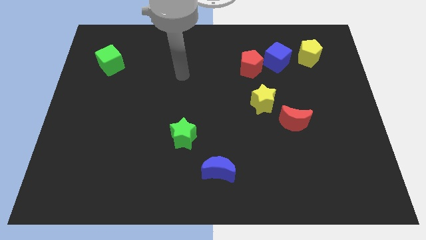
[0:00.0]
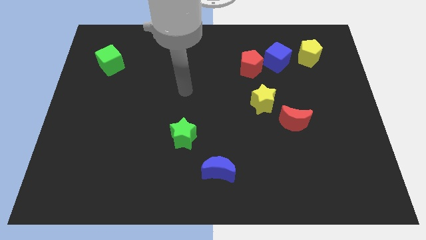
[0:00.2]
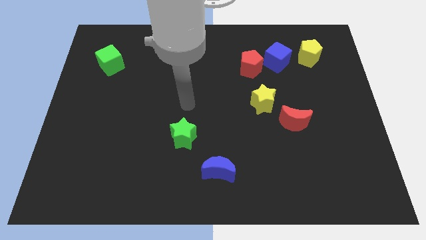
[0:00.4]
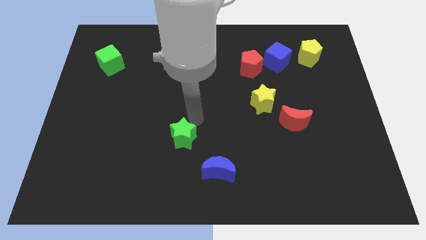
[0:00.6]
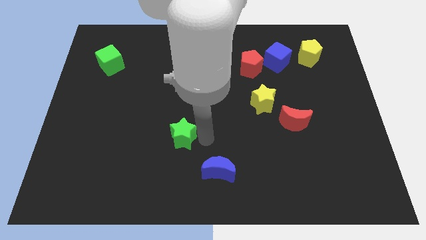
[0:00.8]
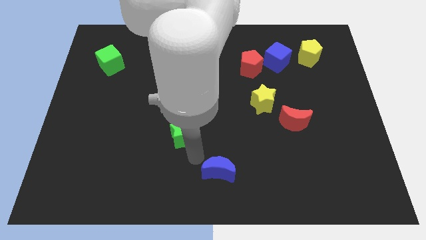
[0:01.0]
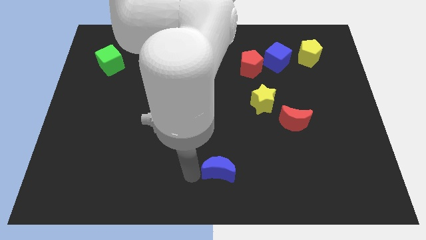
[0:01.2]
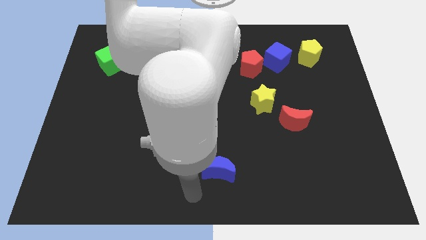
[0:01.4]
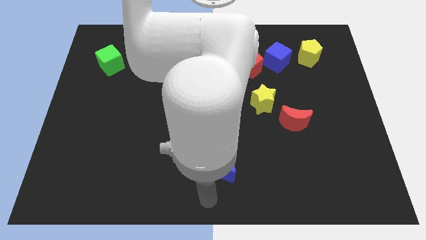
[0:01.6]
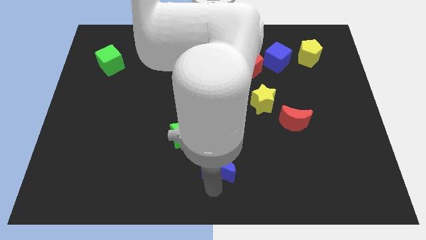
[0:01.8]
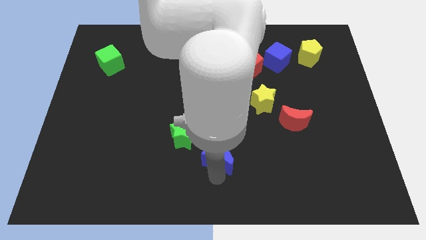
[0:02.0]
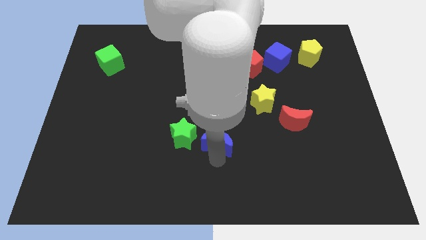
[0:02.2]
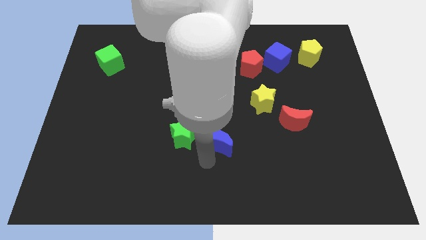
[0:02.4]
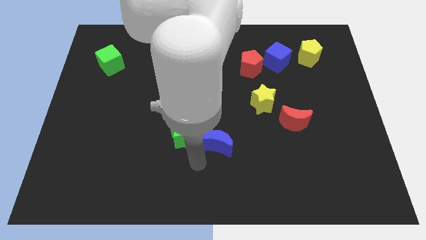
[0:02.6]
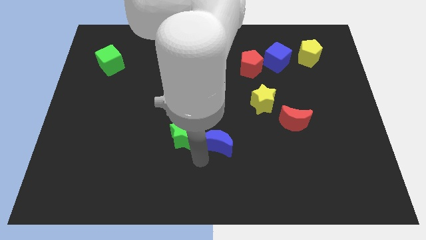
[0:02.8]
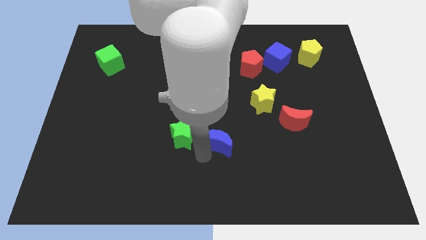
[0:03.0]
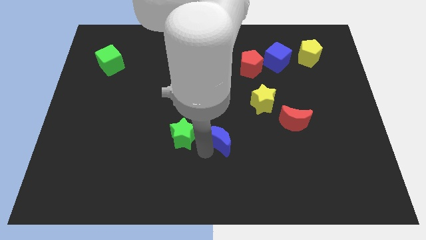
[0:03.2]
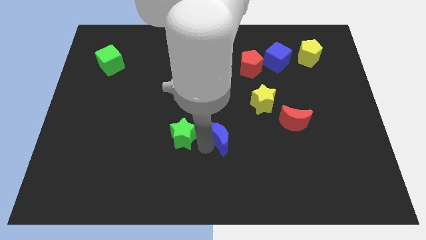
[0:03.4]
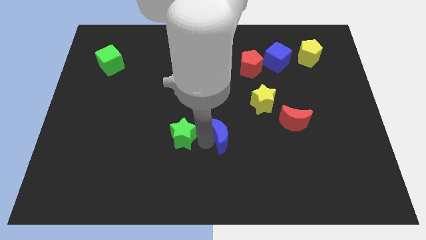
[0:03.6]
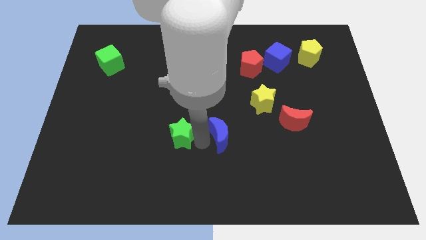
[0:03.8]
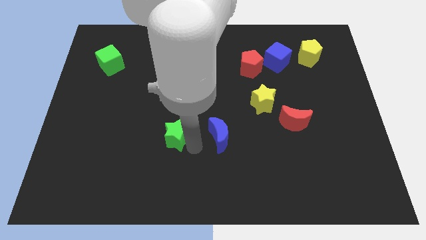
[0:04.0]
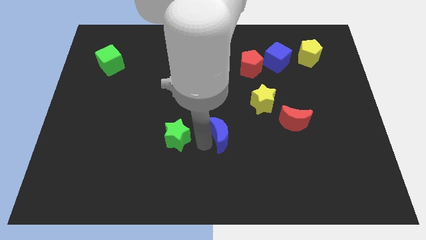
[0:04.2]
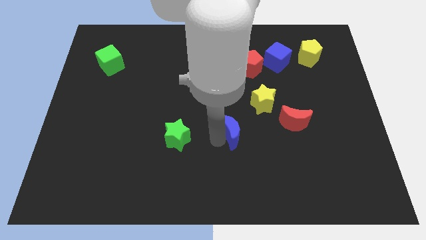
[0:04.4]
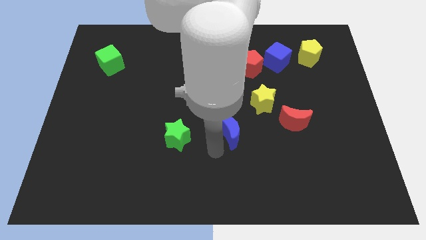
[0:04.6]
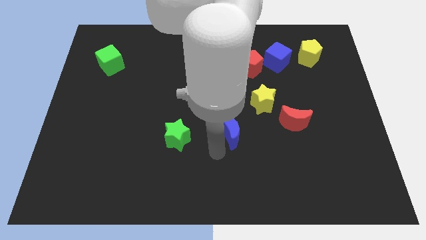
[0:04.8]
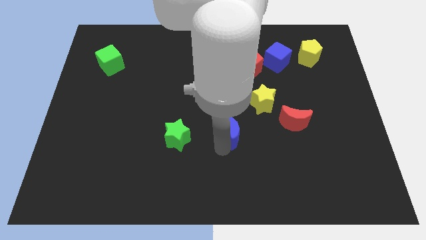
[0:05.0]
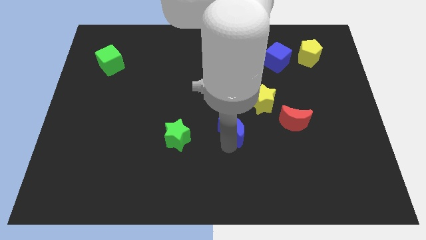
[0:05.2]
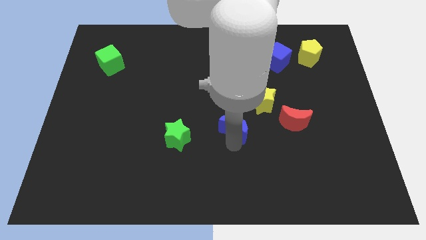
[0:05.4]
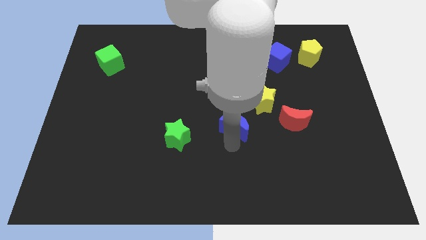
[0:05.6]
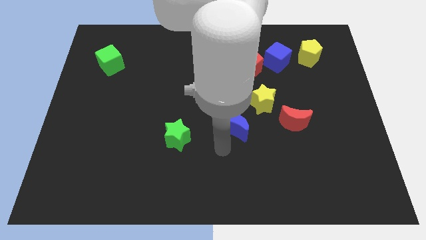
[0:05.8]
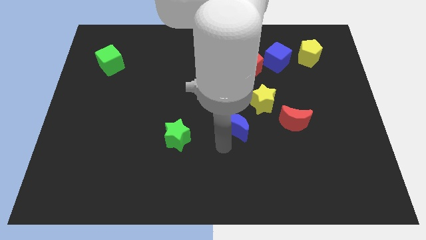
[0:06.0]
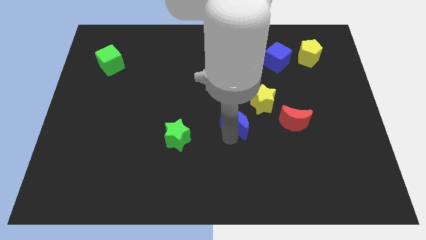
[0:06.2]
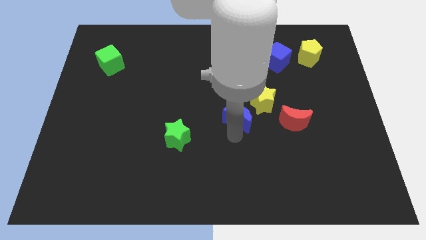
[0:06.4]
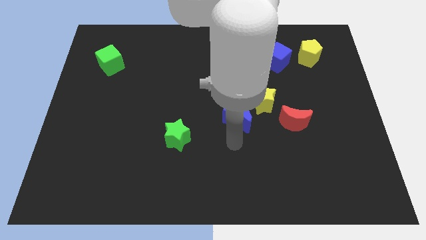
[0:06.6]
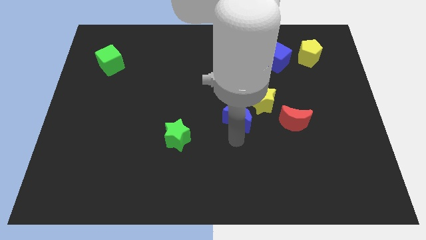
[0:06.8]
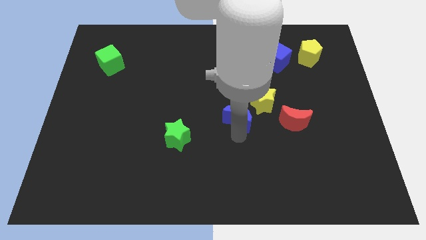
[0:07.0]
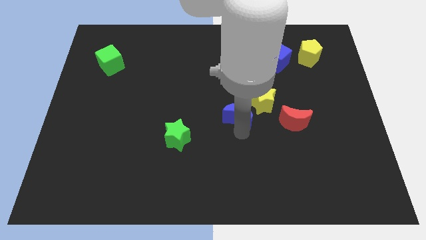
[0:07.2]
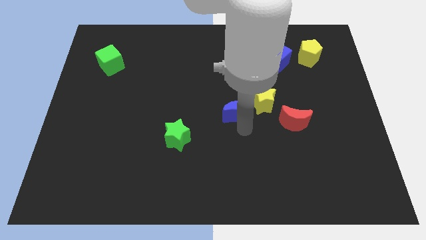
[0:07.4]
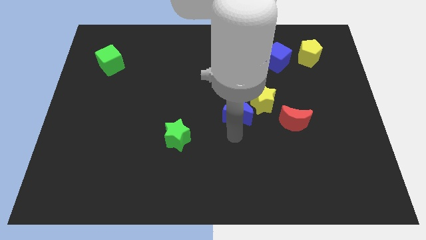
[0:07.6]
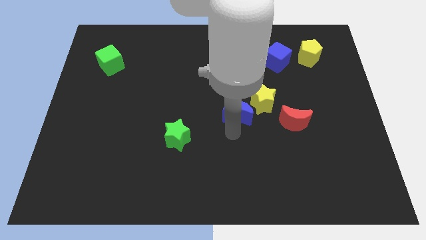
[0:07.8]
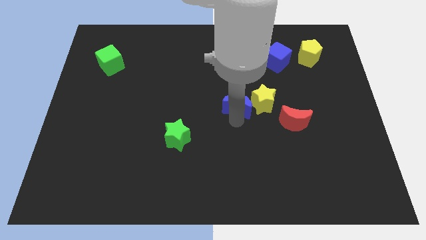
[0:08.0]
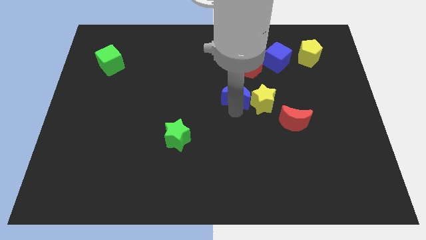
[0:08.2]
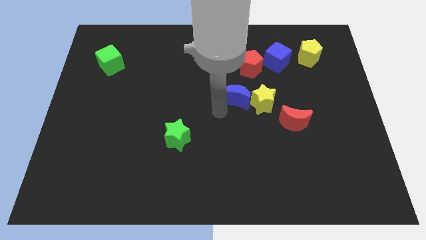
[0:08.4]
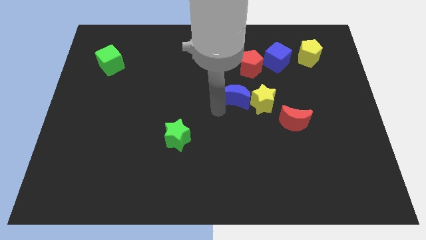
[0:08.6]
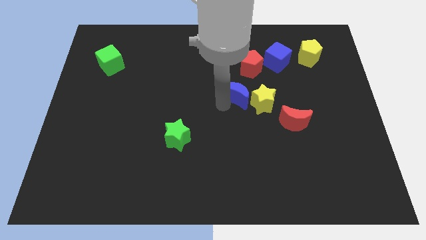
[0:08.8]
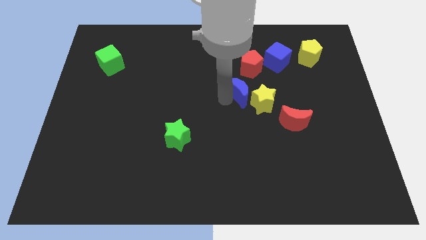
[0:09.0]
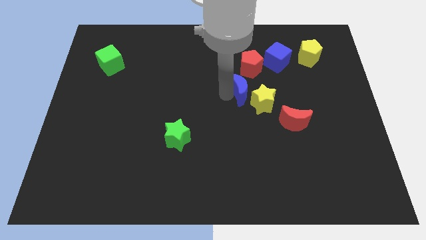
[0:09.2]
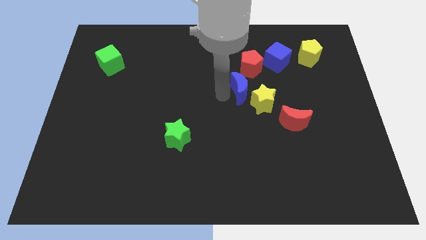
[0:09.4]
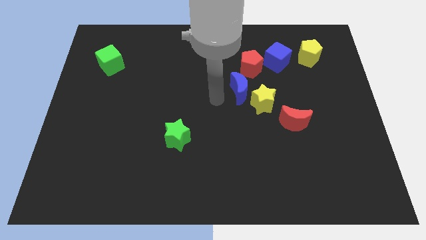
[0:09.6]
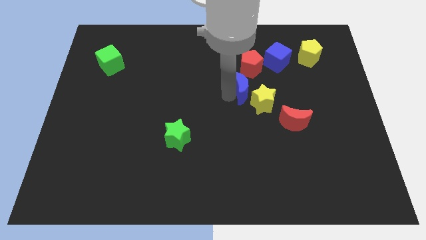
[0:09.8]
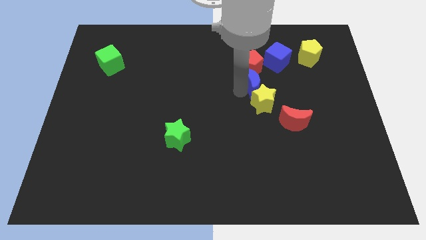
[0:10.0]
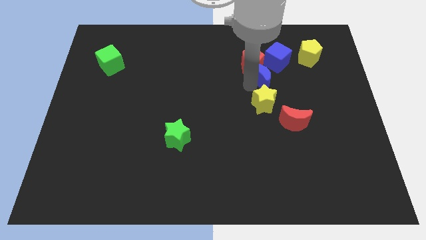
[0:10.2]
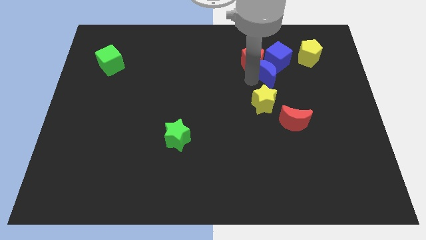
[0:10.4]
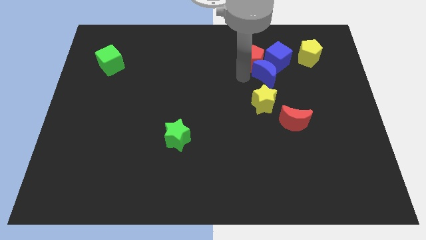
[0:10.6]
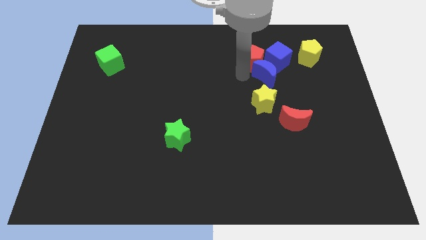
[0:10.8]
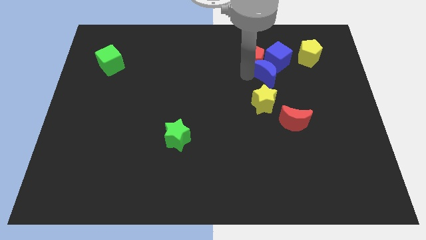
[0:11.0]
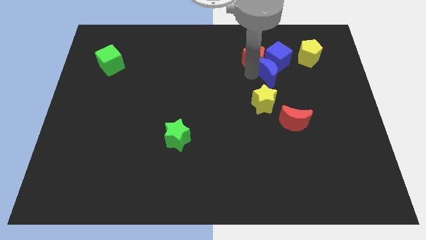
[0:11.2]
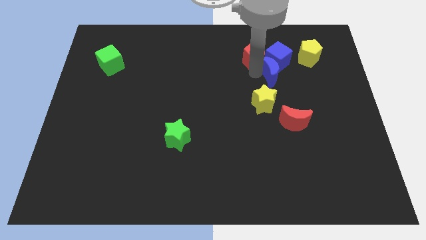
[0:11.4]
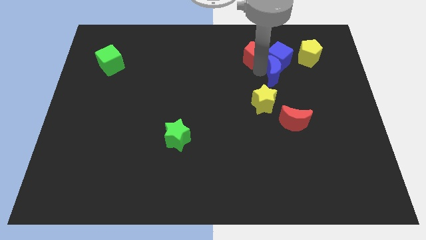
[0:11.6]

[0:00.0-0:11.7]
push the blue moon diagonally down and to the right of the blue cube

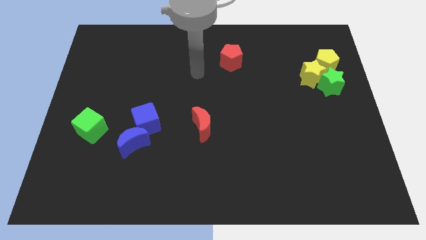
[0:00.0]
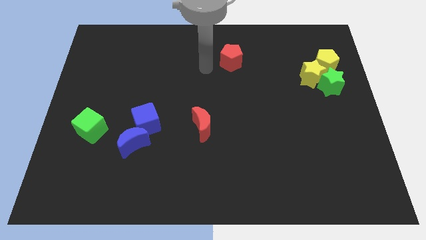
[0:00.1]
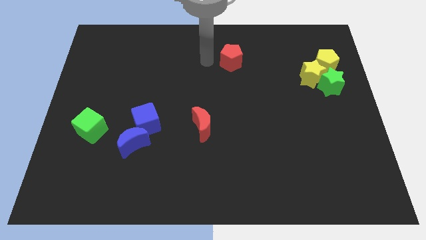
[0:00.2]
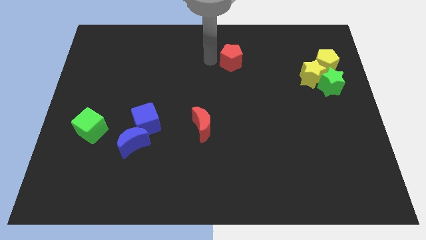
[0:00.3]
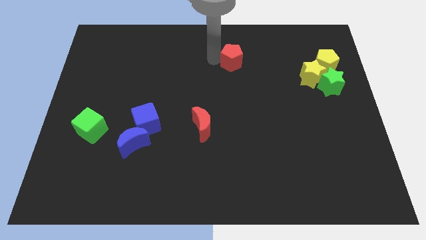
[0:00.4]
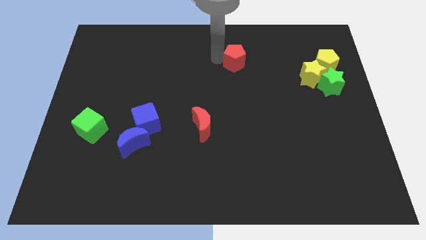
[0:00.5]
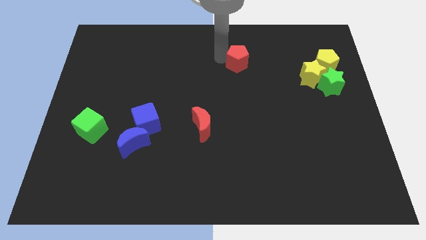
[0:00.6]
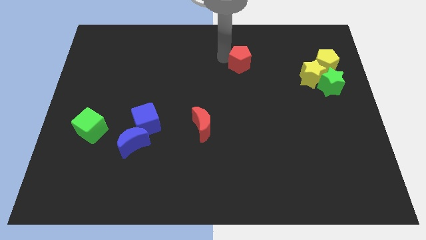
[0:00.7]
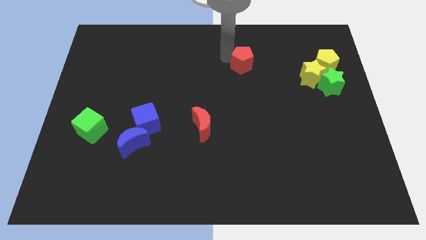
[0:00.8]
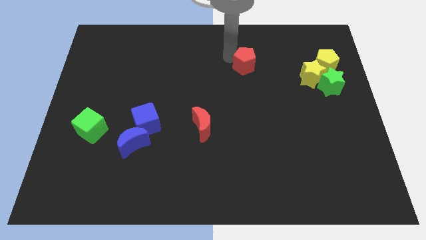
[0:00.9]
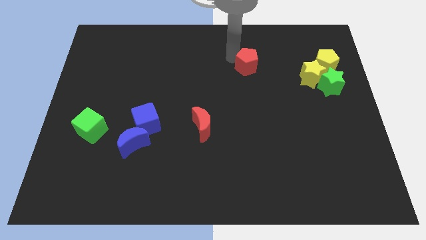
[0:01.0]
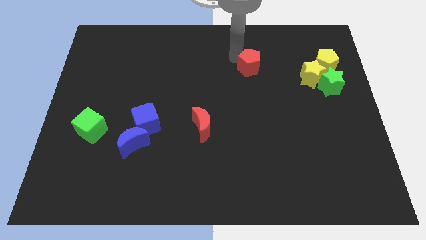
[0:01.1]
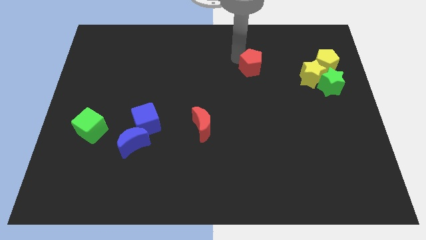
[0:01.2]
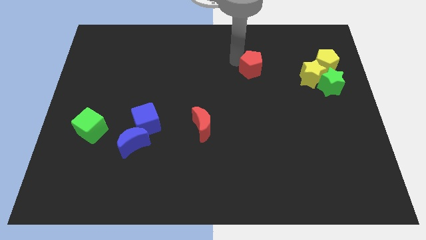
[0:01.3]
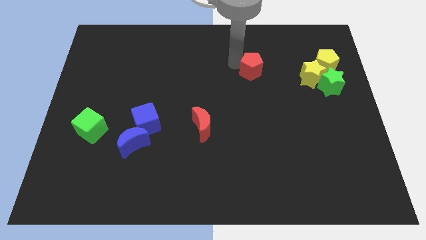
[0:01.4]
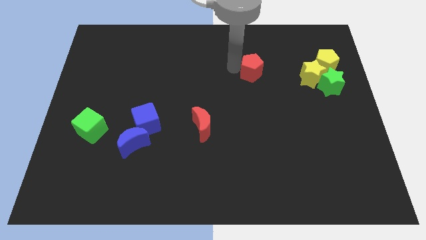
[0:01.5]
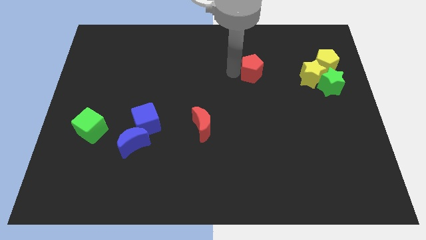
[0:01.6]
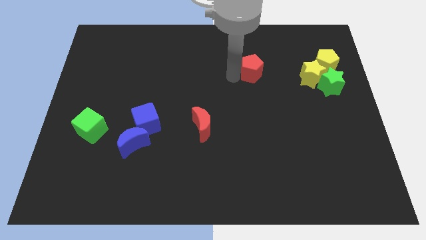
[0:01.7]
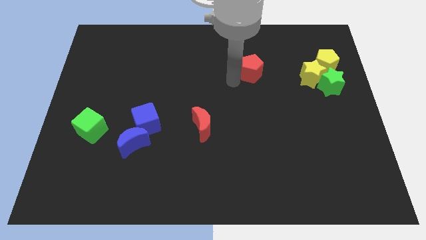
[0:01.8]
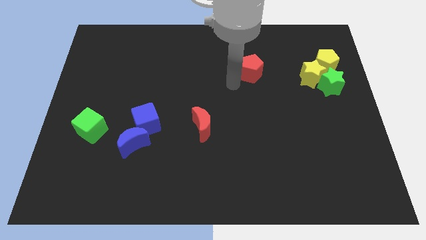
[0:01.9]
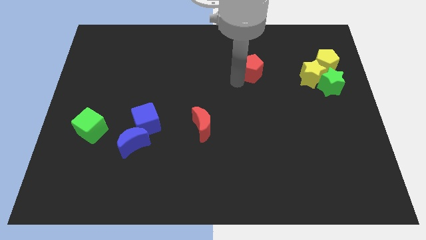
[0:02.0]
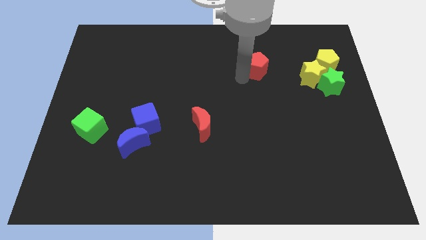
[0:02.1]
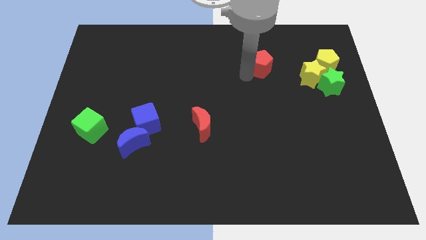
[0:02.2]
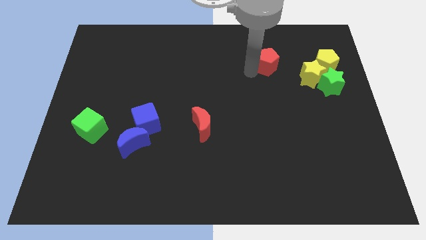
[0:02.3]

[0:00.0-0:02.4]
slide the red pentagon to the top left side of the yellow star

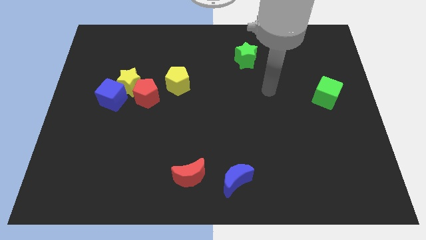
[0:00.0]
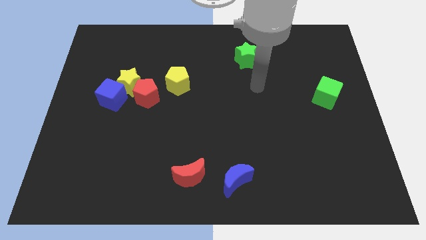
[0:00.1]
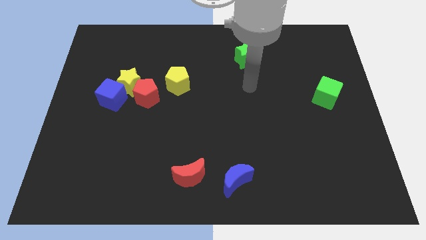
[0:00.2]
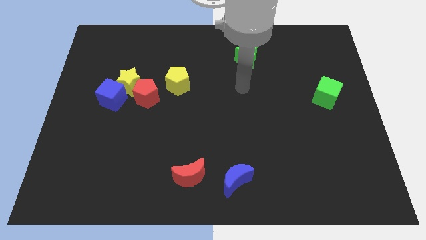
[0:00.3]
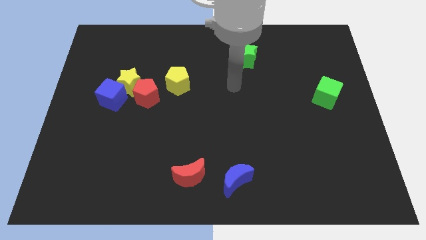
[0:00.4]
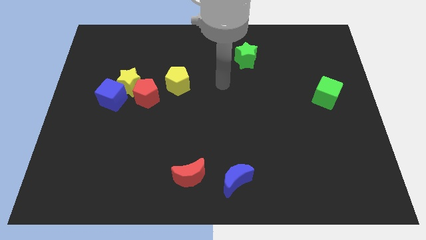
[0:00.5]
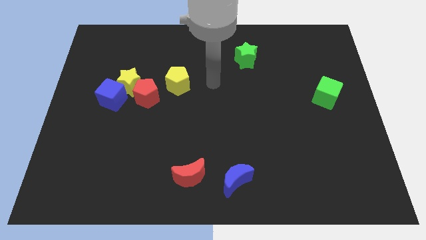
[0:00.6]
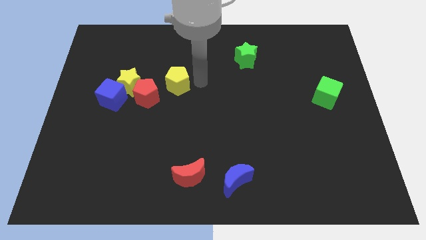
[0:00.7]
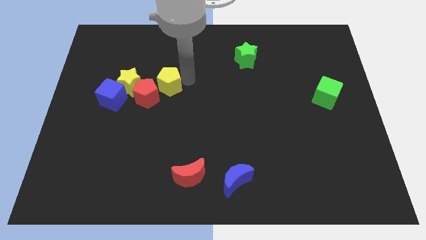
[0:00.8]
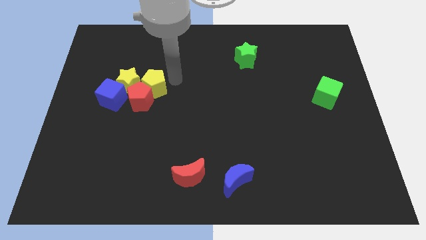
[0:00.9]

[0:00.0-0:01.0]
put the red pentagon to the bottom right side of the blue cube
